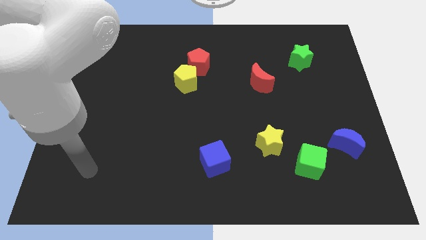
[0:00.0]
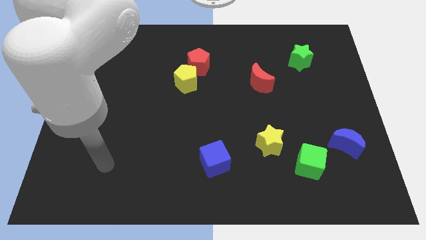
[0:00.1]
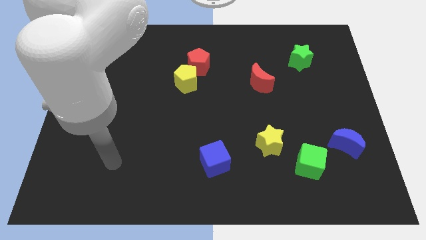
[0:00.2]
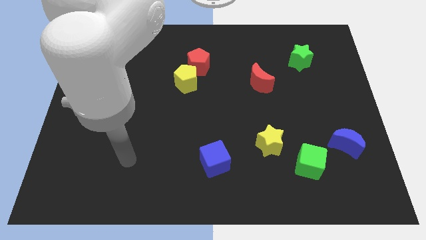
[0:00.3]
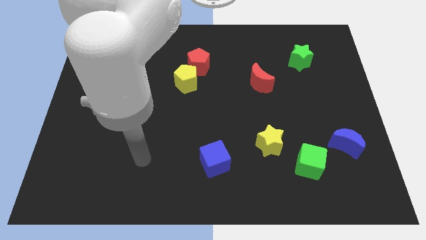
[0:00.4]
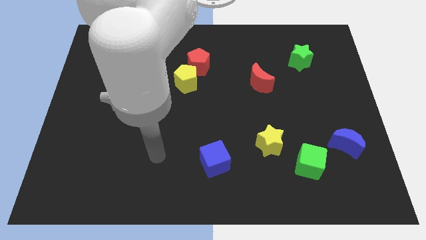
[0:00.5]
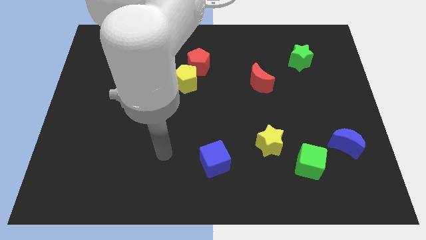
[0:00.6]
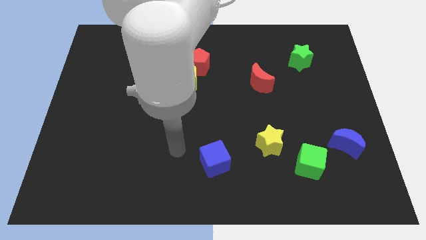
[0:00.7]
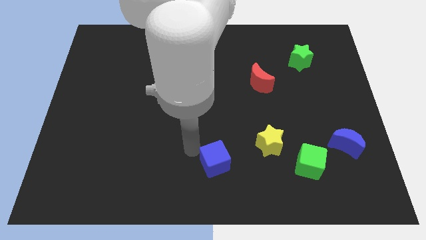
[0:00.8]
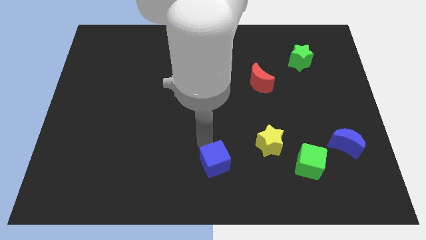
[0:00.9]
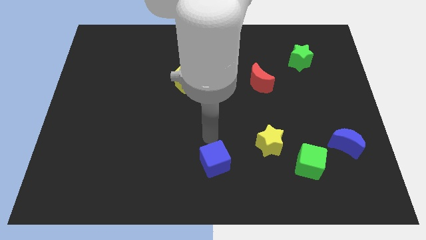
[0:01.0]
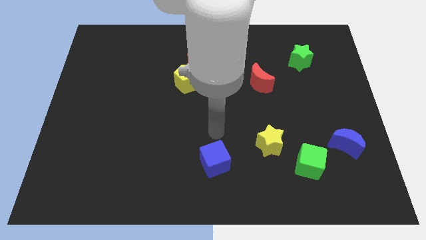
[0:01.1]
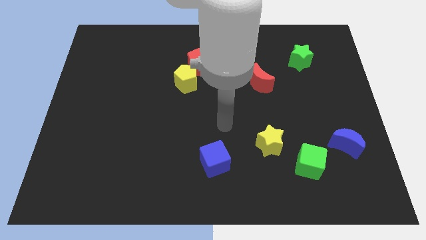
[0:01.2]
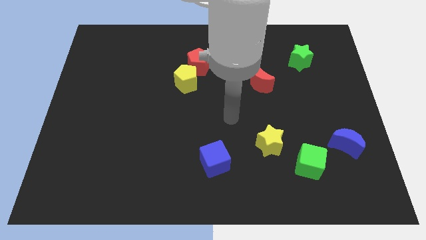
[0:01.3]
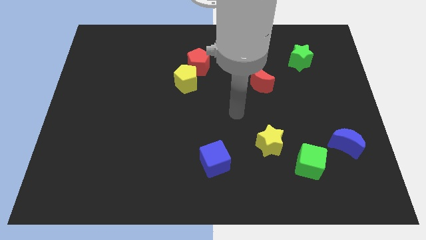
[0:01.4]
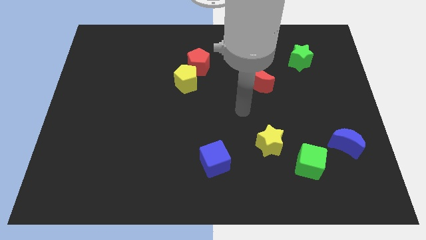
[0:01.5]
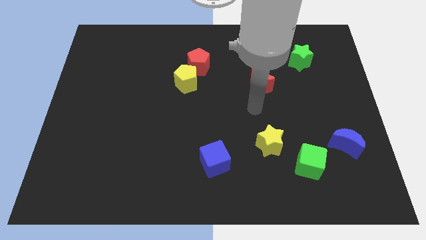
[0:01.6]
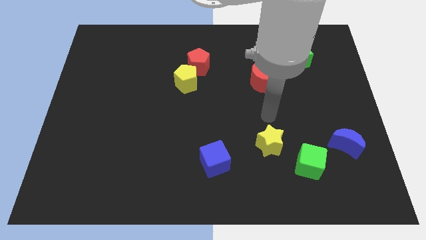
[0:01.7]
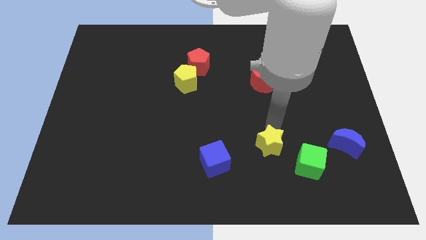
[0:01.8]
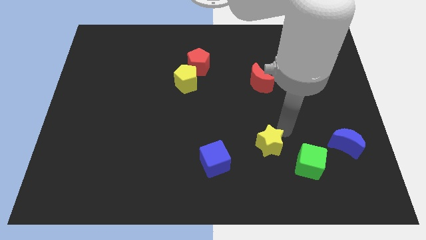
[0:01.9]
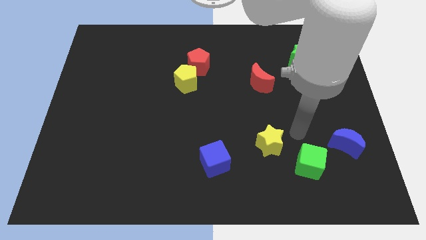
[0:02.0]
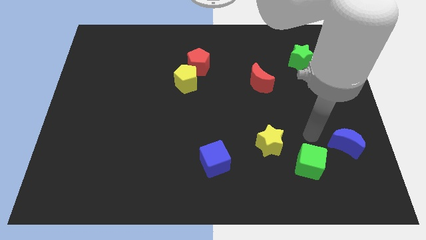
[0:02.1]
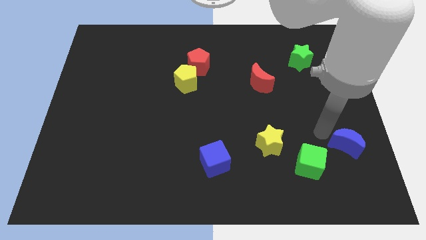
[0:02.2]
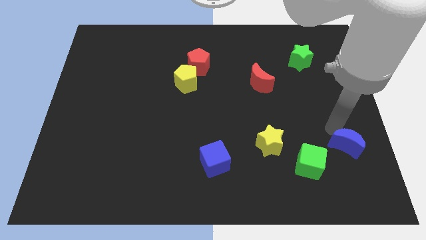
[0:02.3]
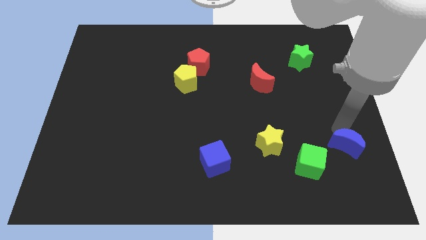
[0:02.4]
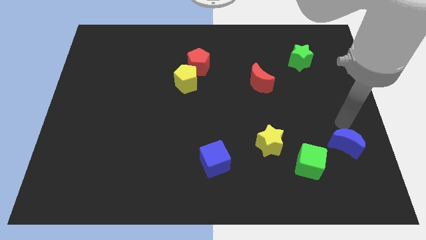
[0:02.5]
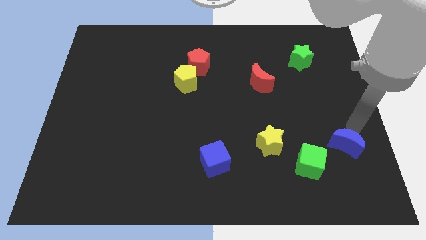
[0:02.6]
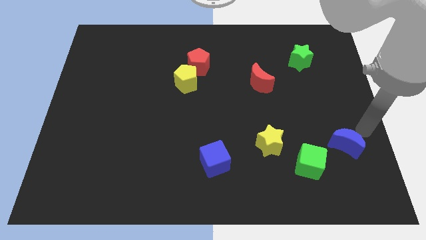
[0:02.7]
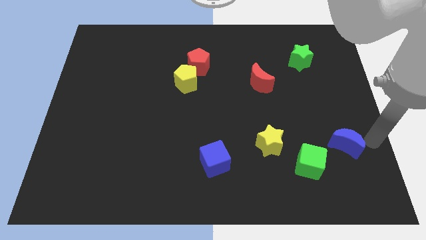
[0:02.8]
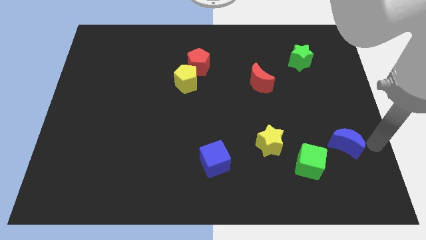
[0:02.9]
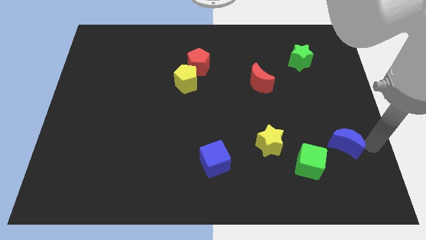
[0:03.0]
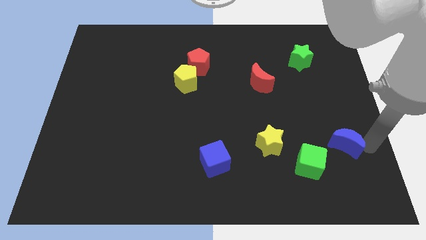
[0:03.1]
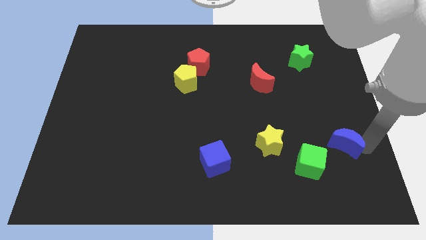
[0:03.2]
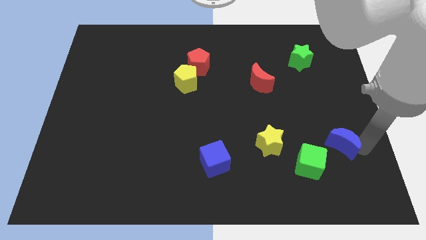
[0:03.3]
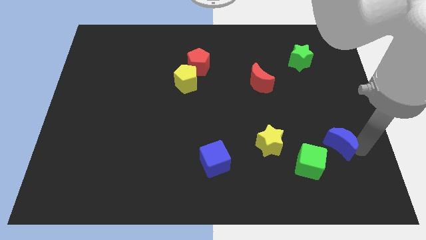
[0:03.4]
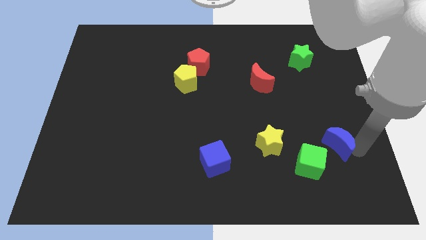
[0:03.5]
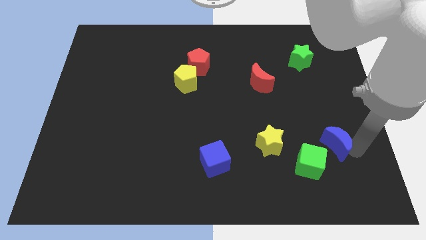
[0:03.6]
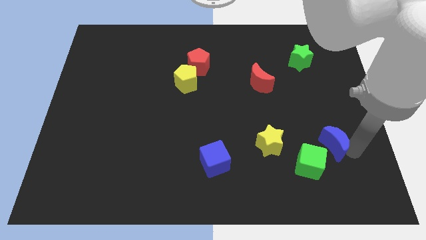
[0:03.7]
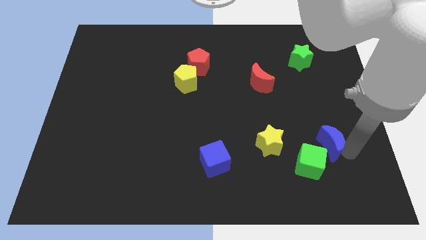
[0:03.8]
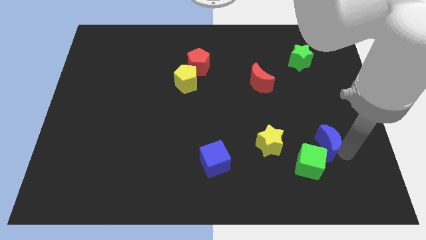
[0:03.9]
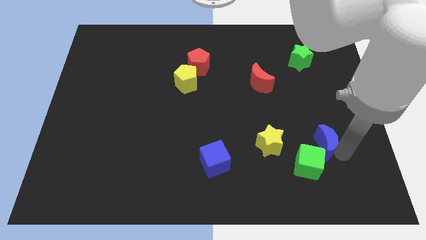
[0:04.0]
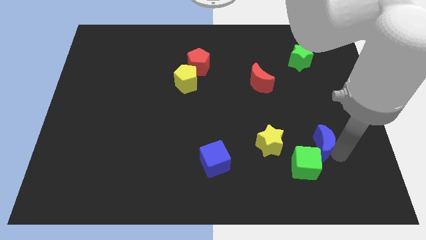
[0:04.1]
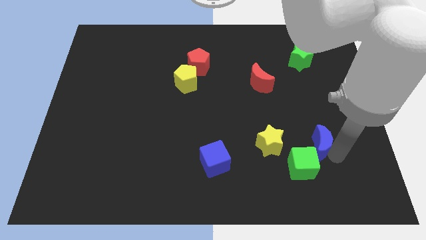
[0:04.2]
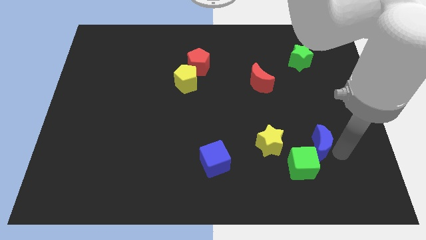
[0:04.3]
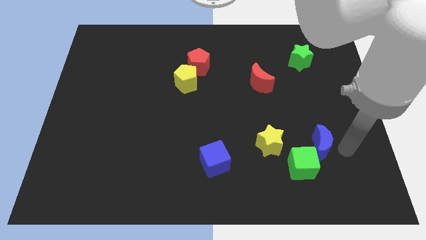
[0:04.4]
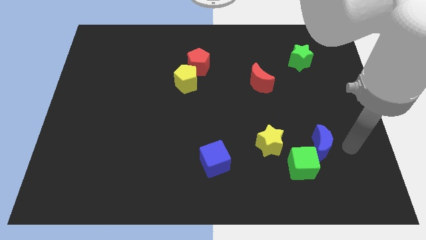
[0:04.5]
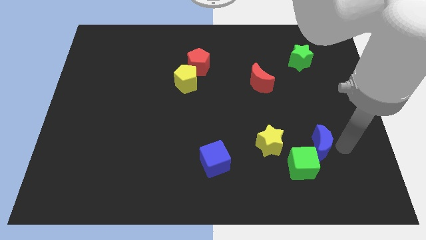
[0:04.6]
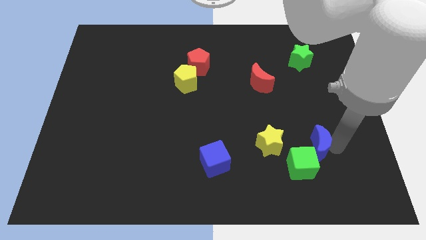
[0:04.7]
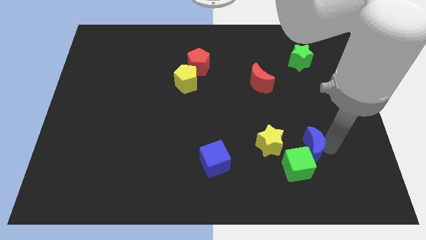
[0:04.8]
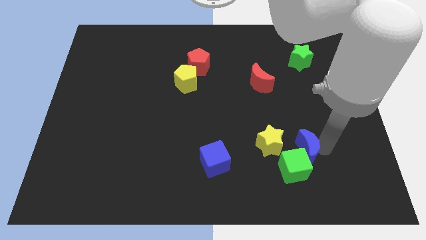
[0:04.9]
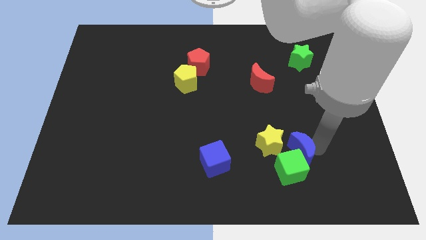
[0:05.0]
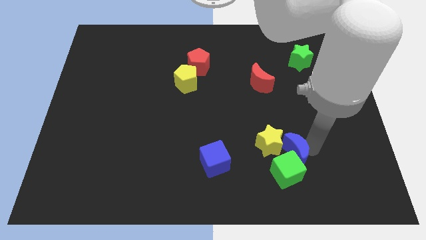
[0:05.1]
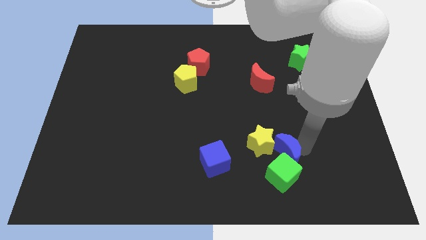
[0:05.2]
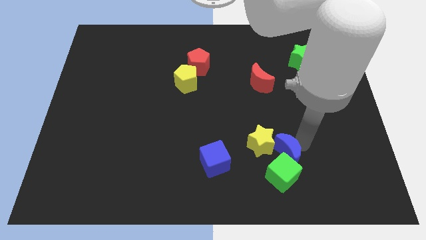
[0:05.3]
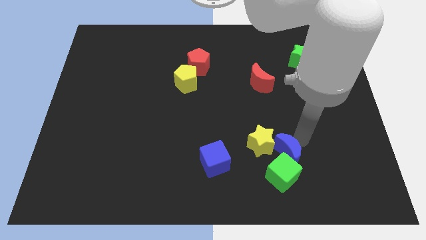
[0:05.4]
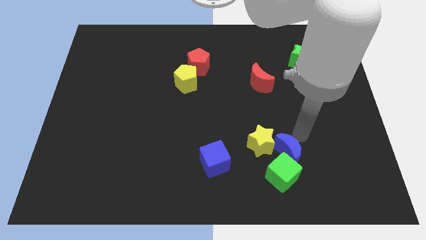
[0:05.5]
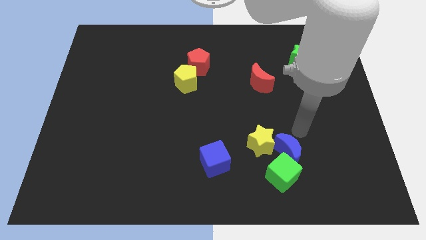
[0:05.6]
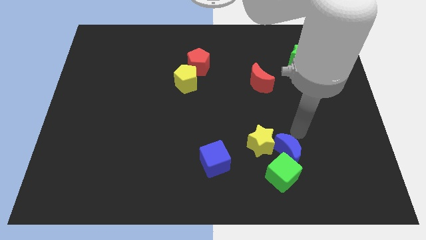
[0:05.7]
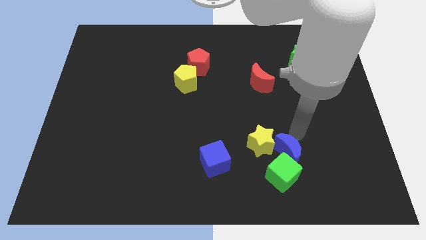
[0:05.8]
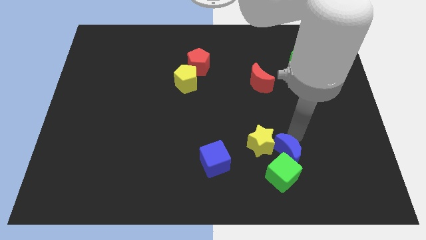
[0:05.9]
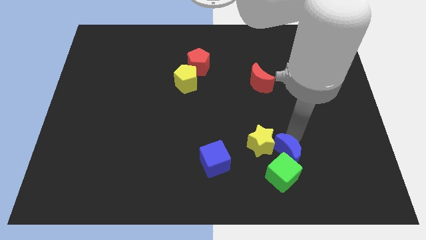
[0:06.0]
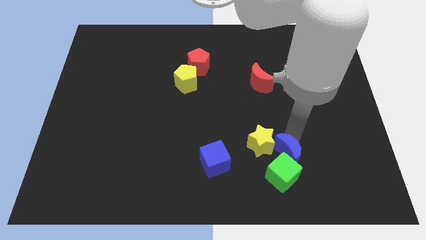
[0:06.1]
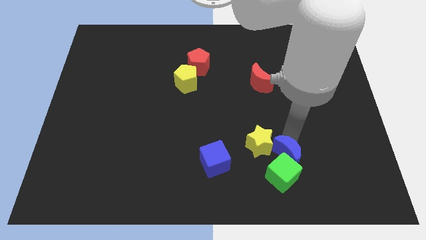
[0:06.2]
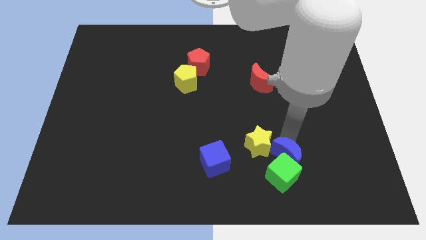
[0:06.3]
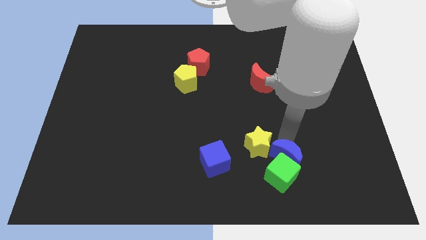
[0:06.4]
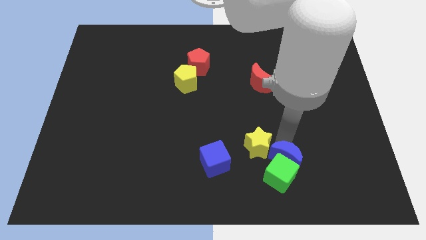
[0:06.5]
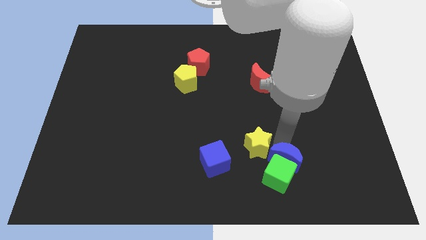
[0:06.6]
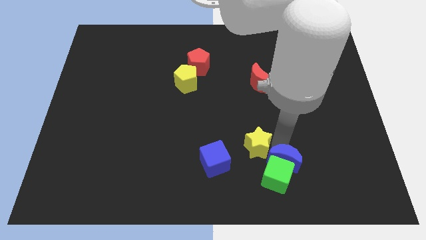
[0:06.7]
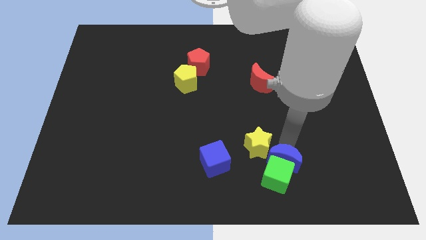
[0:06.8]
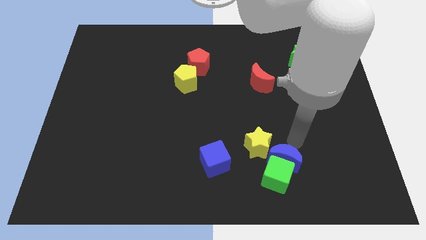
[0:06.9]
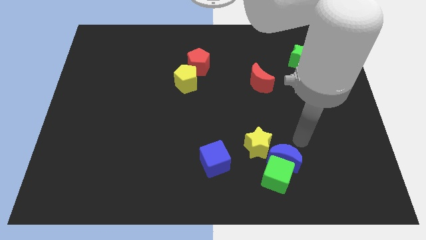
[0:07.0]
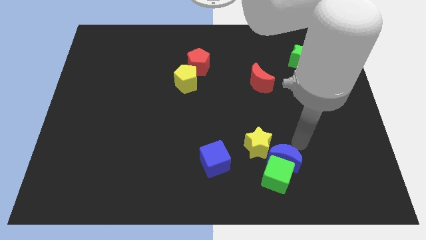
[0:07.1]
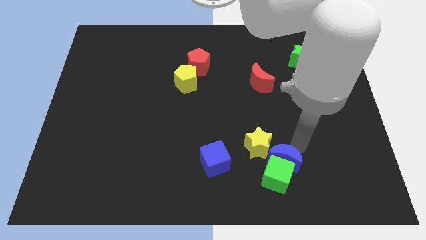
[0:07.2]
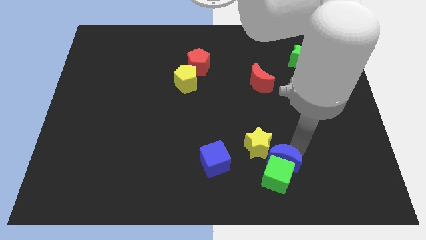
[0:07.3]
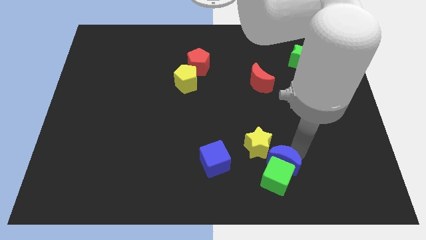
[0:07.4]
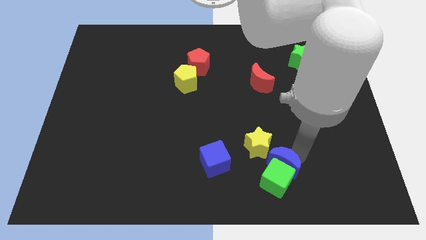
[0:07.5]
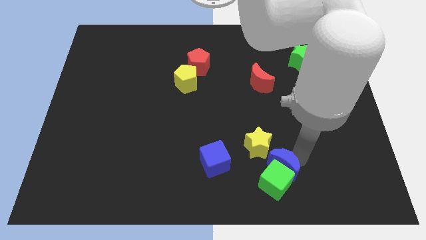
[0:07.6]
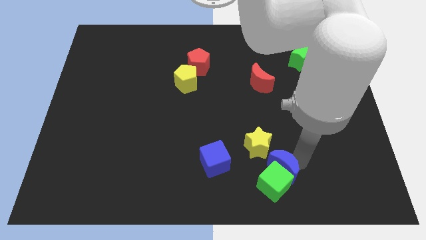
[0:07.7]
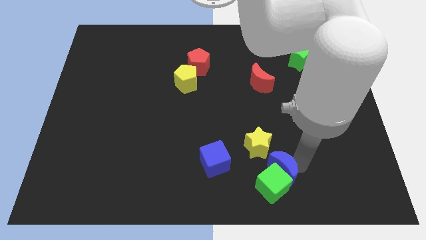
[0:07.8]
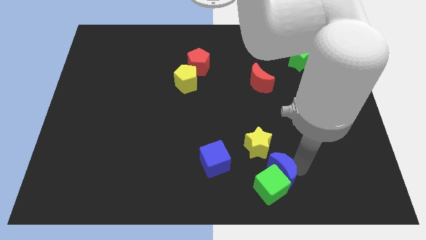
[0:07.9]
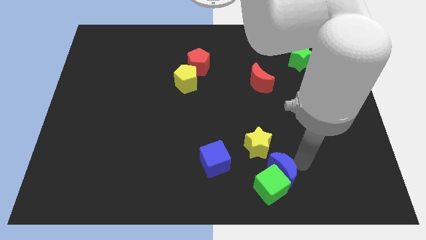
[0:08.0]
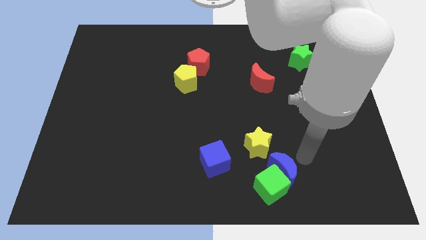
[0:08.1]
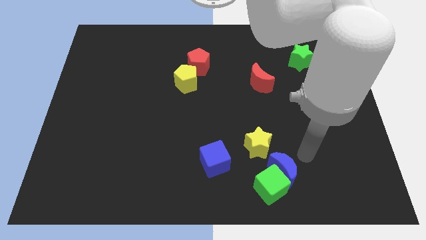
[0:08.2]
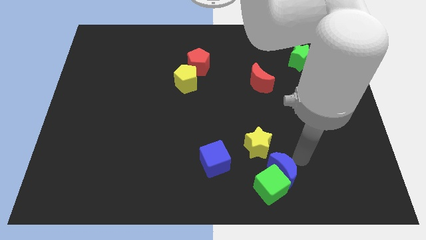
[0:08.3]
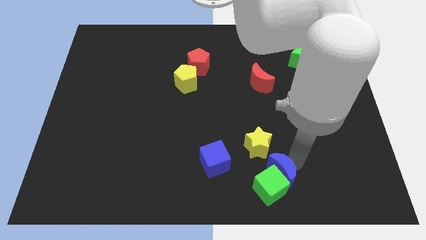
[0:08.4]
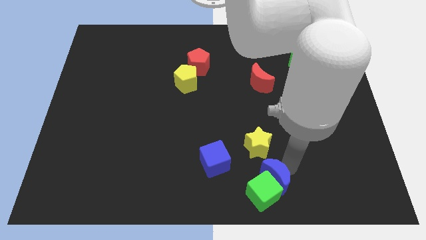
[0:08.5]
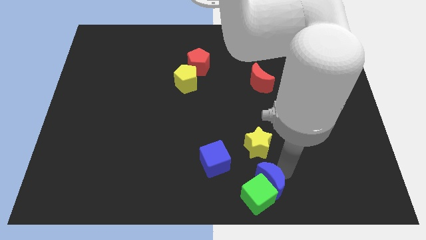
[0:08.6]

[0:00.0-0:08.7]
push the blue moon to the bottom side
